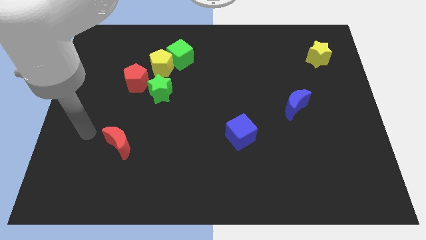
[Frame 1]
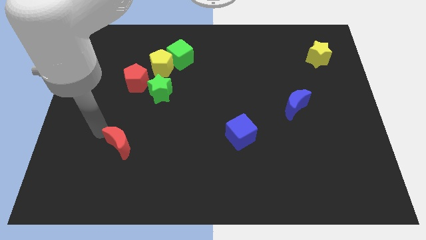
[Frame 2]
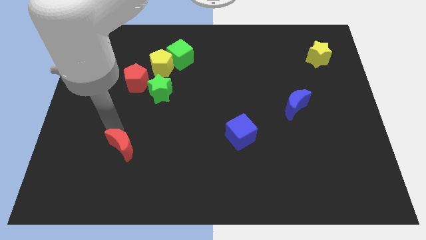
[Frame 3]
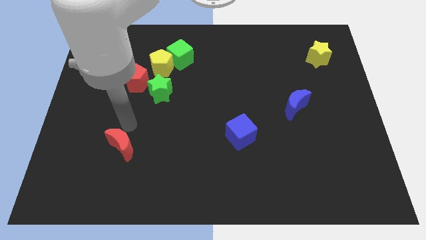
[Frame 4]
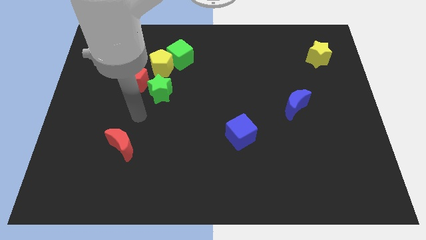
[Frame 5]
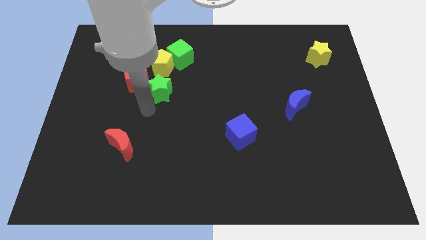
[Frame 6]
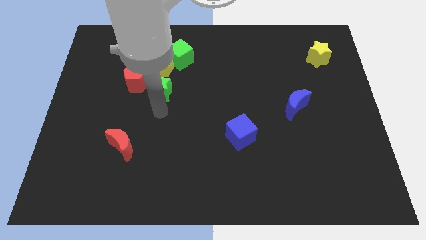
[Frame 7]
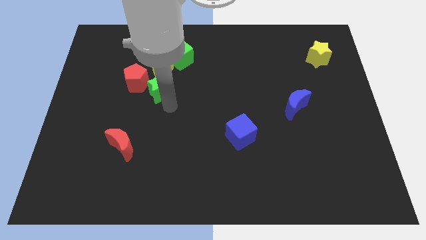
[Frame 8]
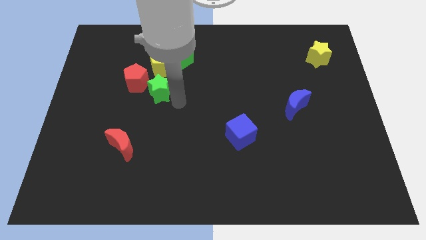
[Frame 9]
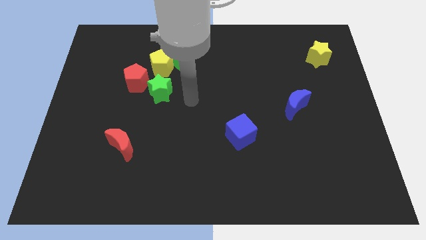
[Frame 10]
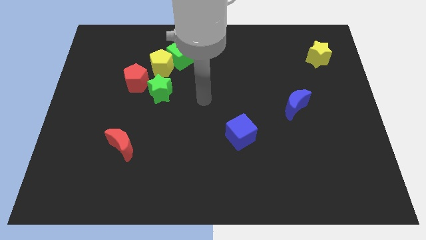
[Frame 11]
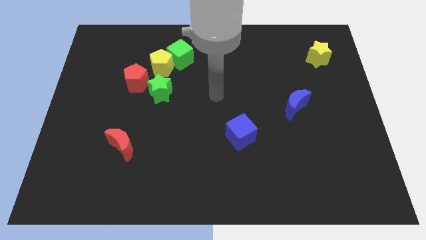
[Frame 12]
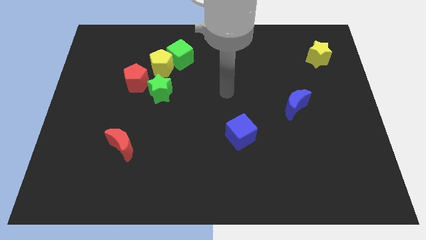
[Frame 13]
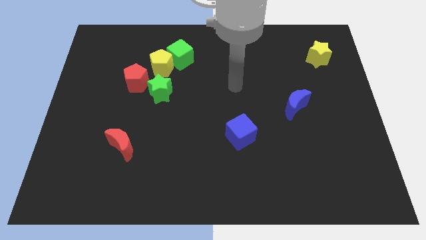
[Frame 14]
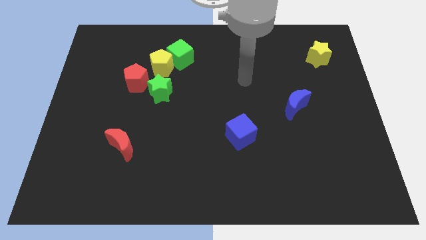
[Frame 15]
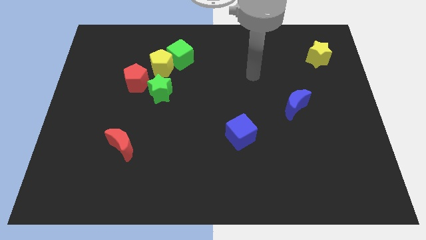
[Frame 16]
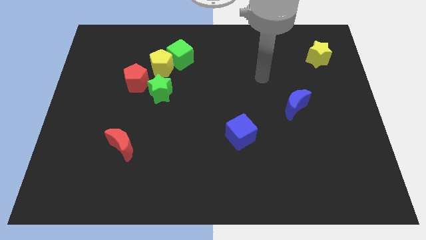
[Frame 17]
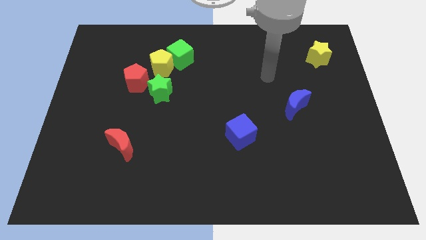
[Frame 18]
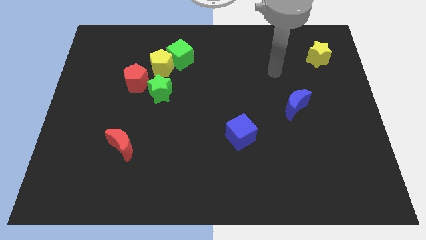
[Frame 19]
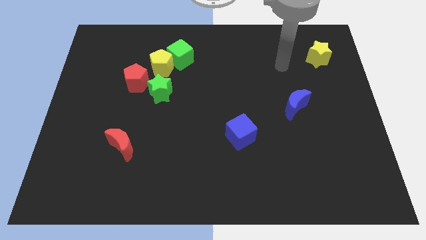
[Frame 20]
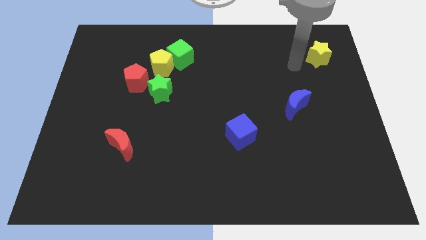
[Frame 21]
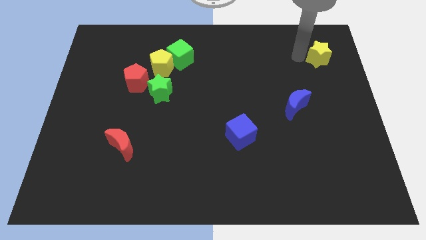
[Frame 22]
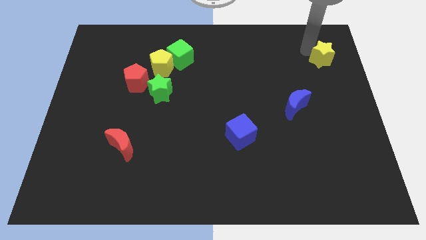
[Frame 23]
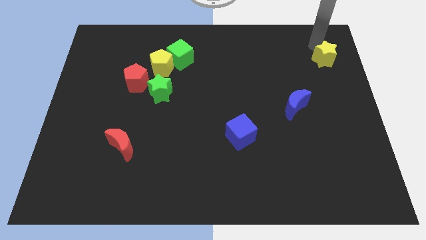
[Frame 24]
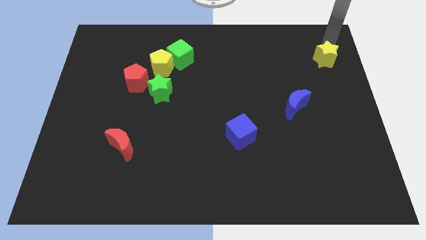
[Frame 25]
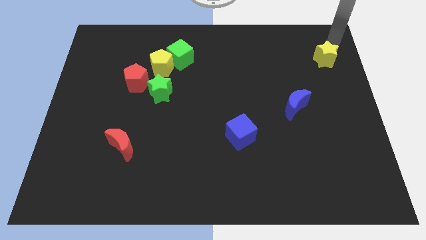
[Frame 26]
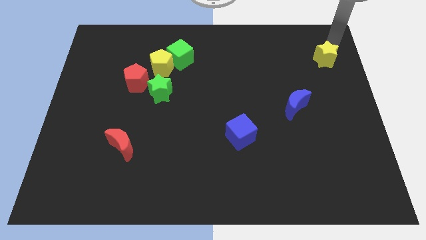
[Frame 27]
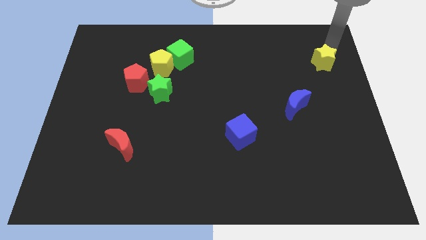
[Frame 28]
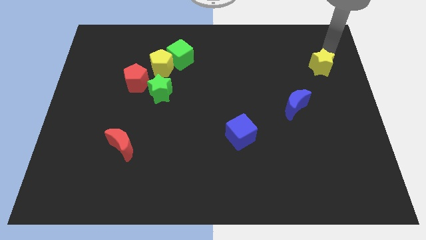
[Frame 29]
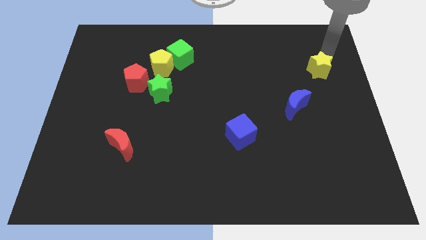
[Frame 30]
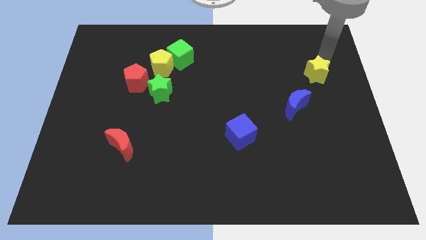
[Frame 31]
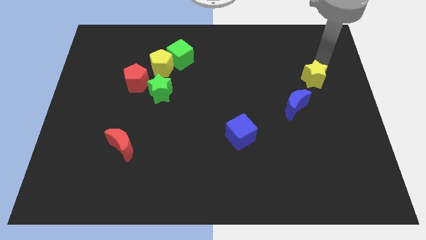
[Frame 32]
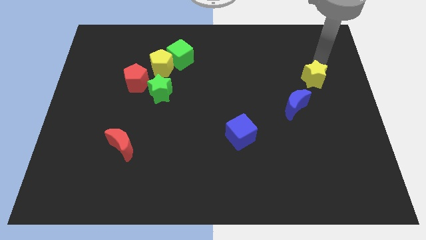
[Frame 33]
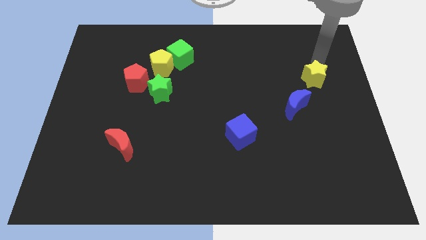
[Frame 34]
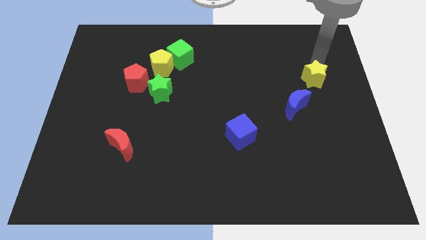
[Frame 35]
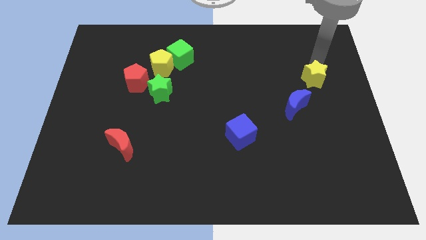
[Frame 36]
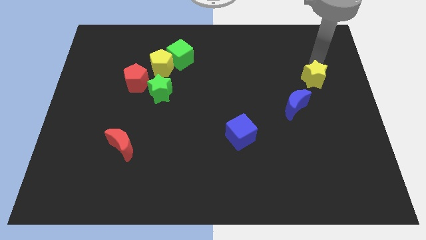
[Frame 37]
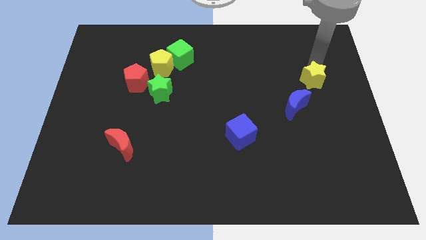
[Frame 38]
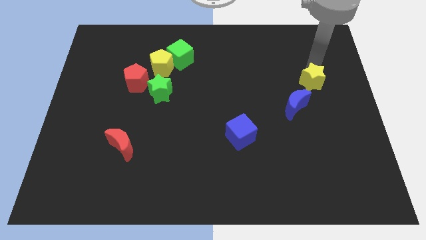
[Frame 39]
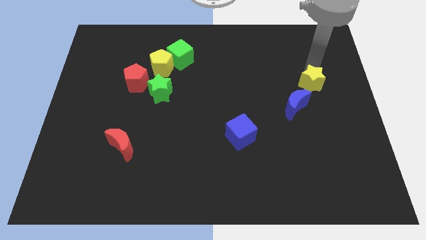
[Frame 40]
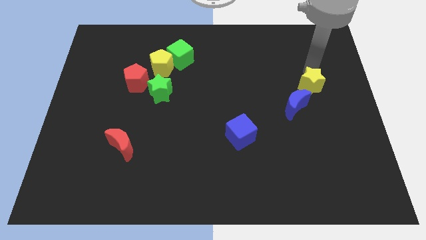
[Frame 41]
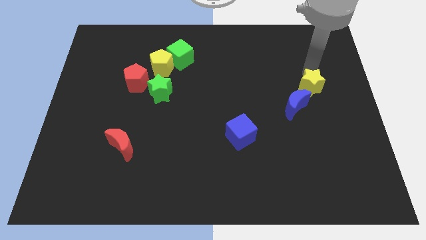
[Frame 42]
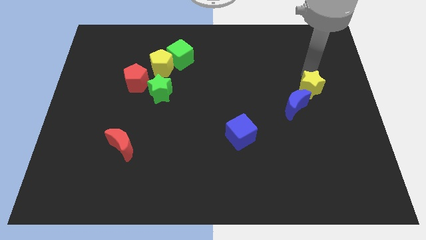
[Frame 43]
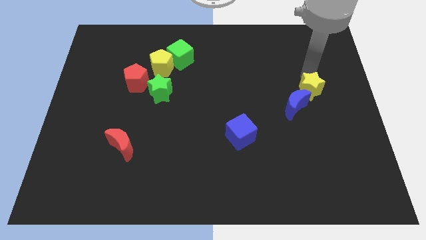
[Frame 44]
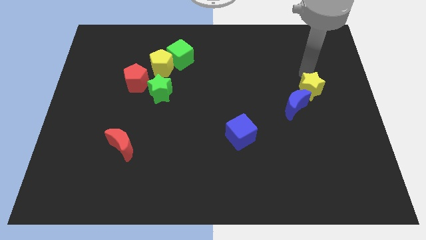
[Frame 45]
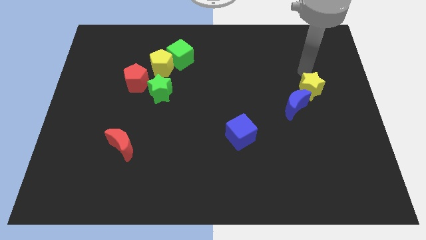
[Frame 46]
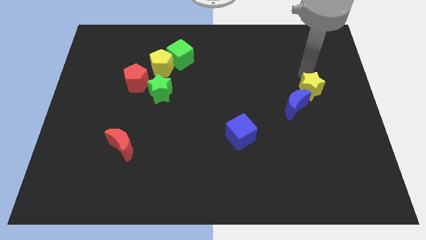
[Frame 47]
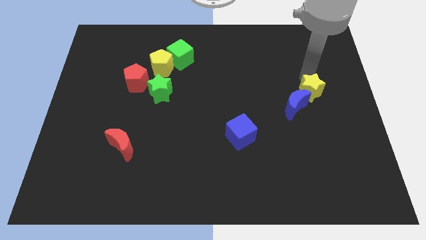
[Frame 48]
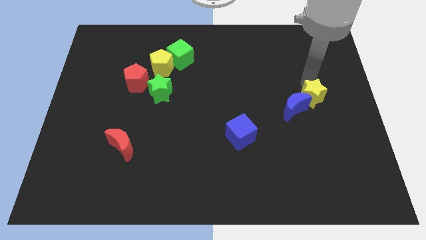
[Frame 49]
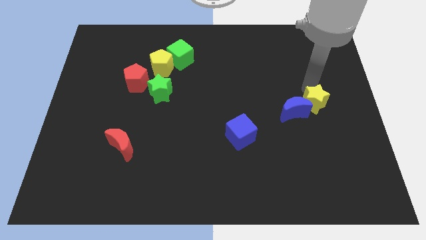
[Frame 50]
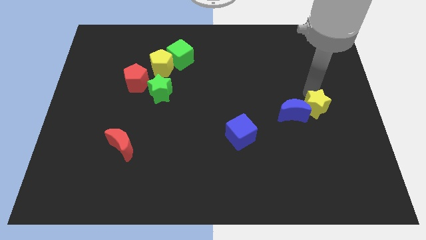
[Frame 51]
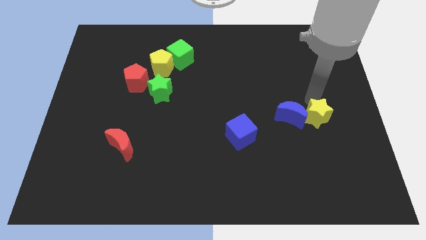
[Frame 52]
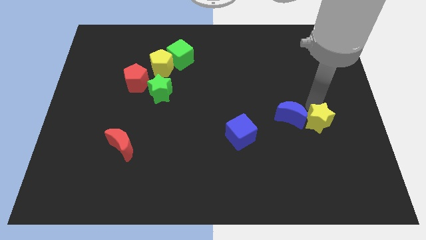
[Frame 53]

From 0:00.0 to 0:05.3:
push the yellow star down

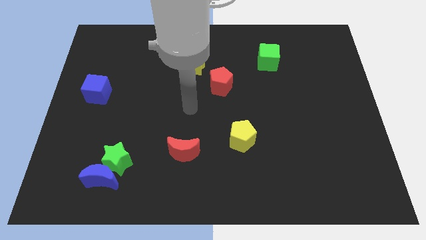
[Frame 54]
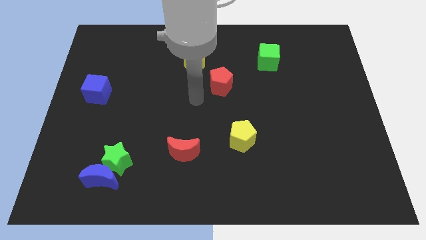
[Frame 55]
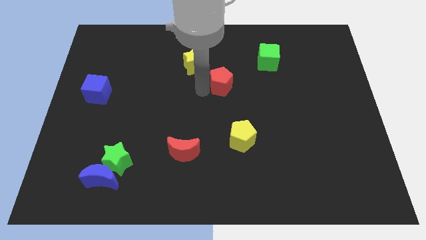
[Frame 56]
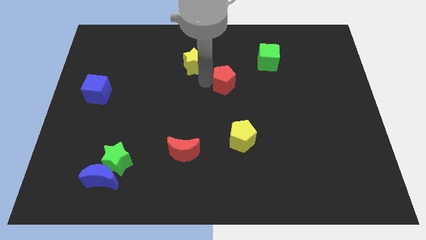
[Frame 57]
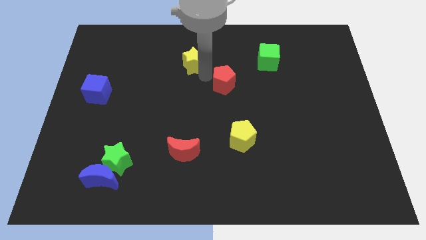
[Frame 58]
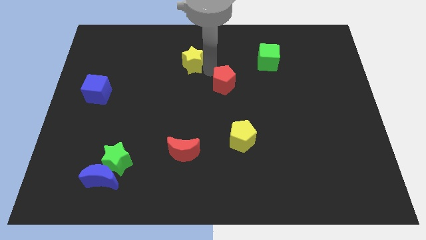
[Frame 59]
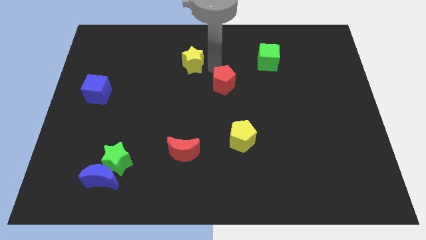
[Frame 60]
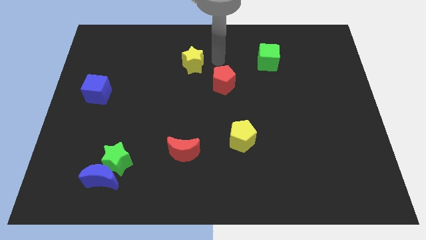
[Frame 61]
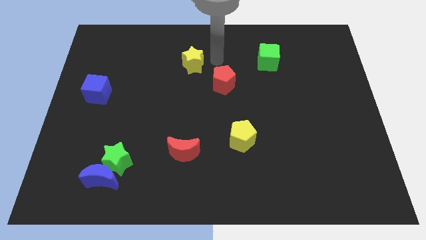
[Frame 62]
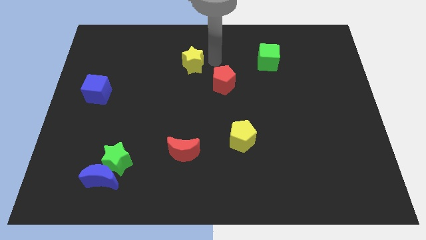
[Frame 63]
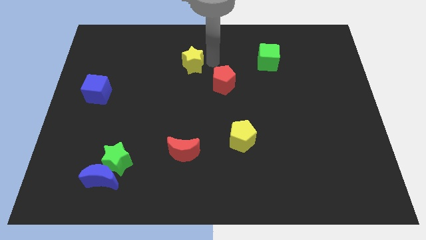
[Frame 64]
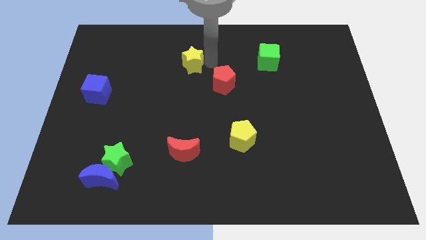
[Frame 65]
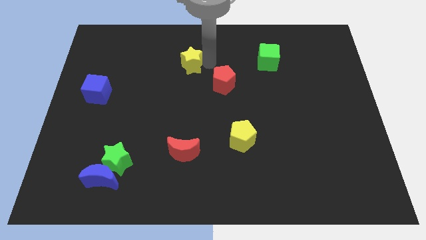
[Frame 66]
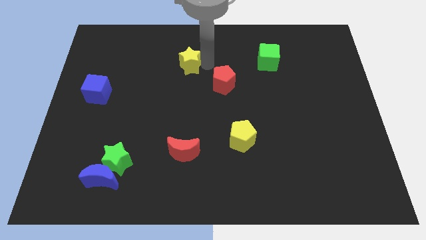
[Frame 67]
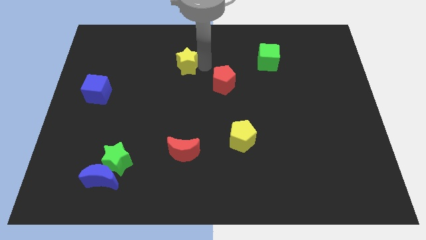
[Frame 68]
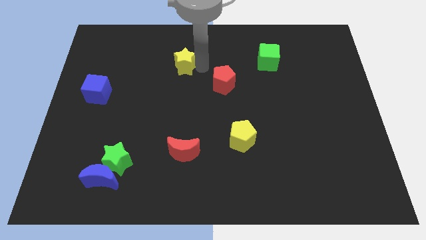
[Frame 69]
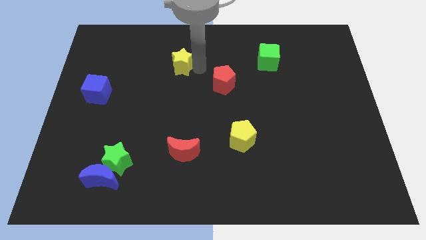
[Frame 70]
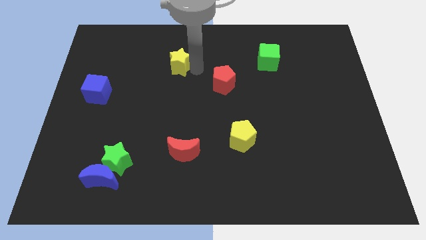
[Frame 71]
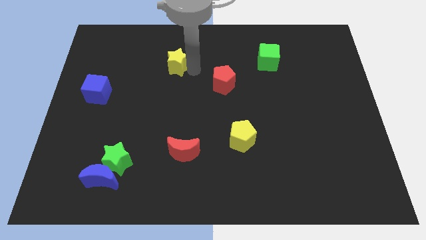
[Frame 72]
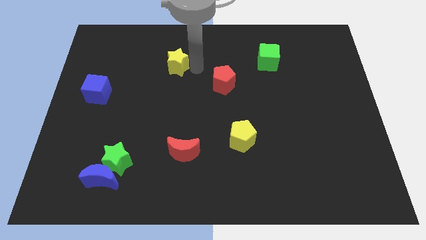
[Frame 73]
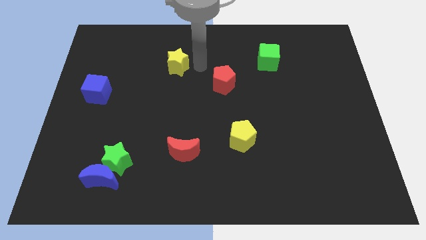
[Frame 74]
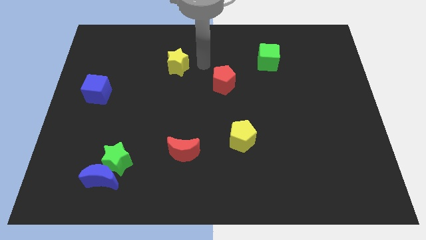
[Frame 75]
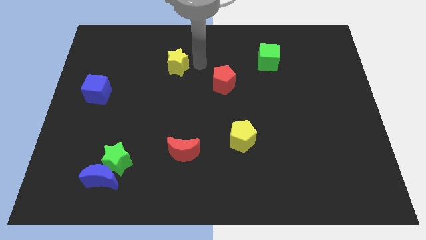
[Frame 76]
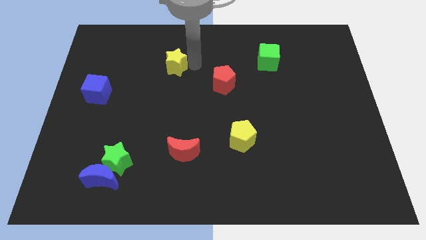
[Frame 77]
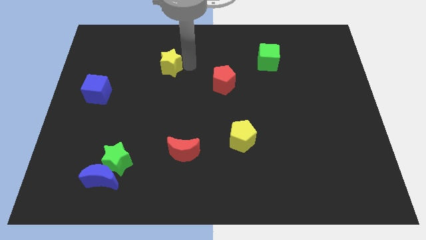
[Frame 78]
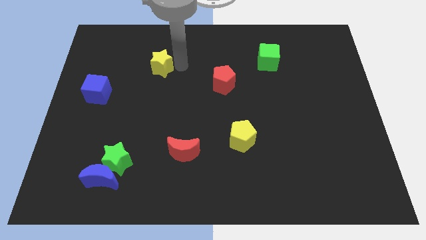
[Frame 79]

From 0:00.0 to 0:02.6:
slightly push the yellow star left
